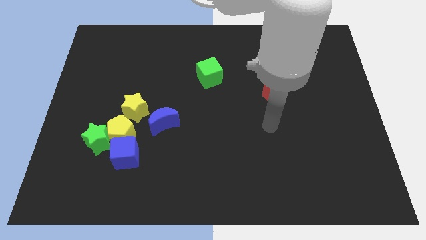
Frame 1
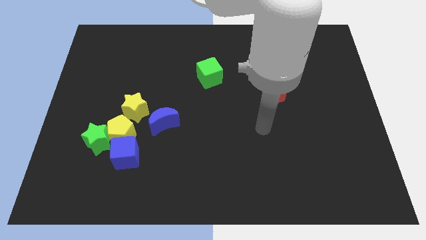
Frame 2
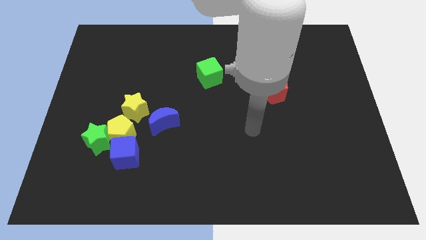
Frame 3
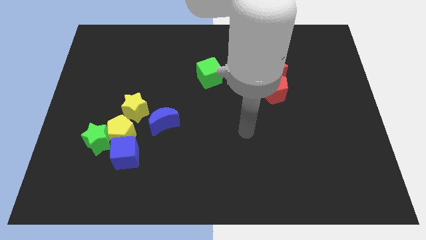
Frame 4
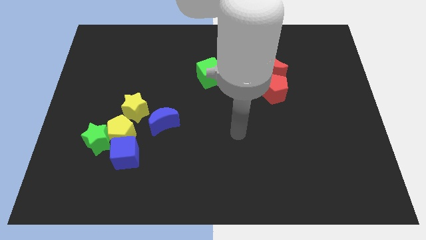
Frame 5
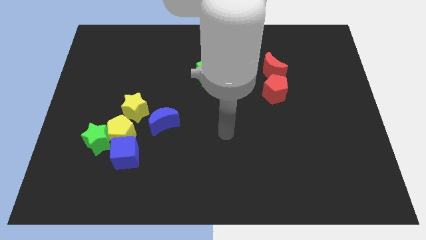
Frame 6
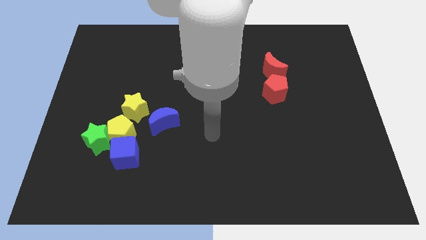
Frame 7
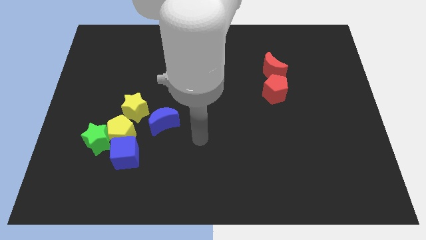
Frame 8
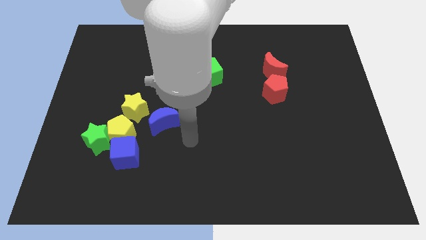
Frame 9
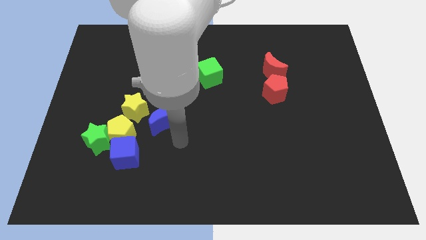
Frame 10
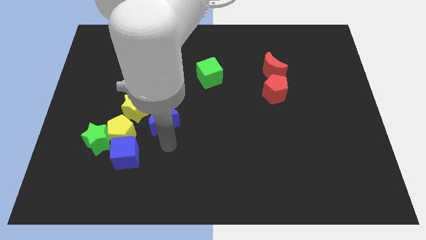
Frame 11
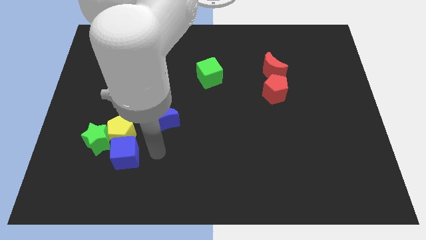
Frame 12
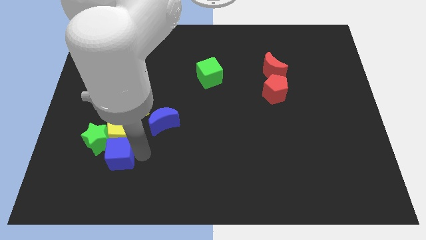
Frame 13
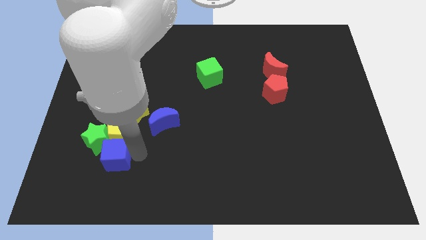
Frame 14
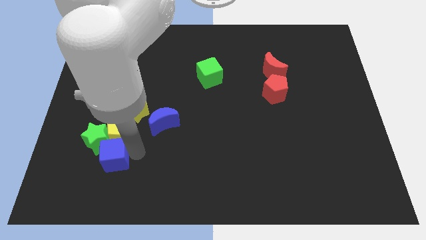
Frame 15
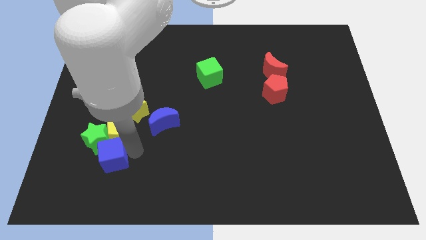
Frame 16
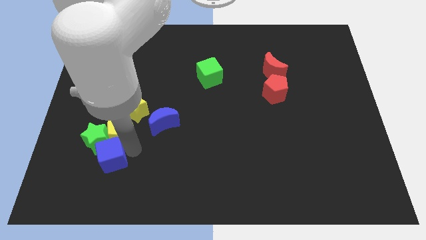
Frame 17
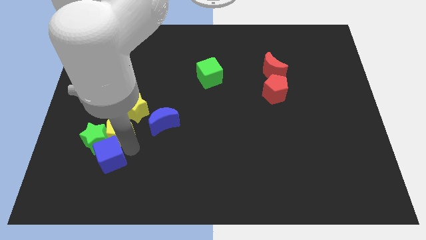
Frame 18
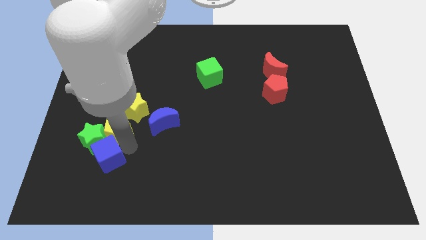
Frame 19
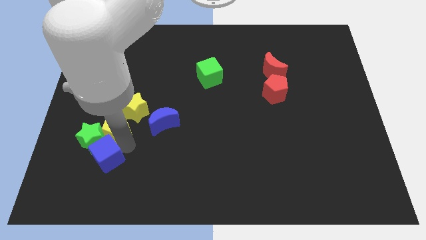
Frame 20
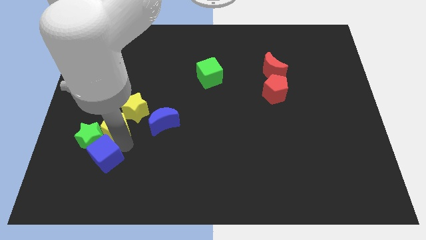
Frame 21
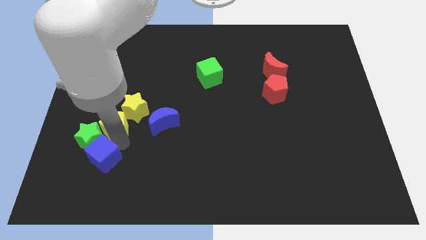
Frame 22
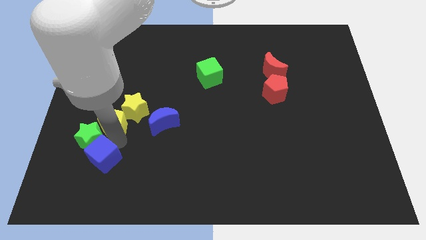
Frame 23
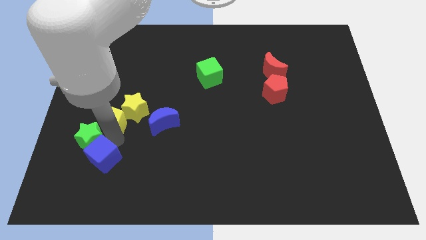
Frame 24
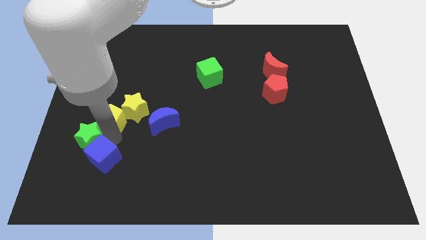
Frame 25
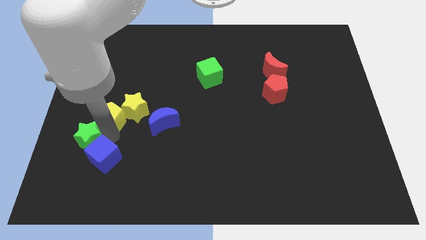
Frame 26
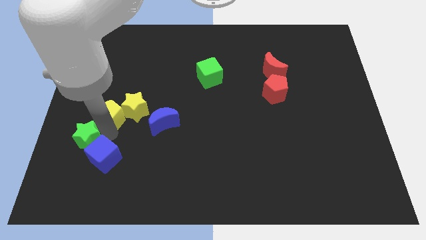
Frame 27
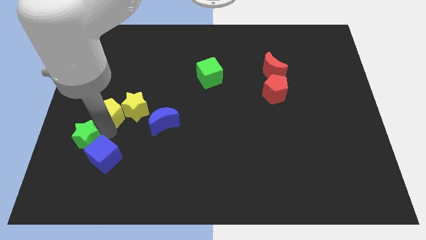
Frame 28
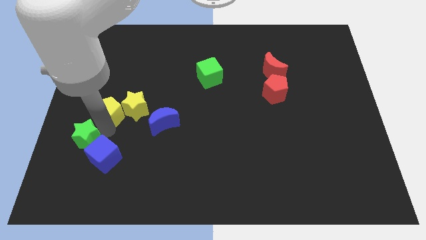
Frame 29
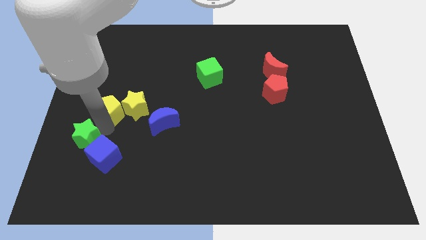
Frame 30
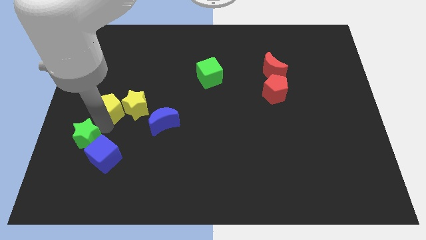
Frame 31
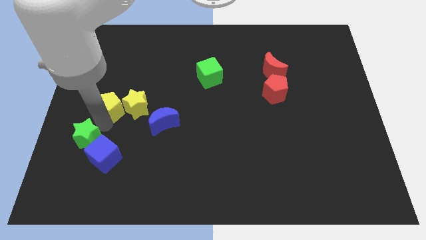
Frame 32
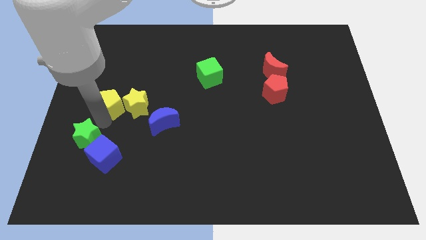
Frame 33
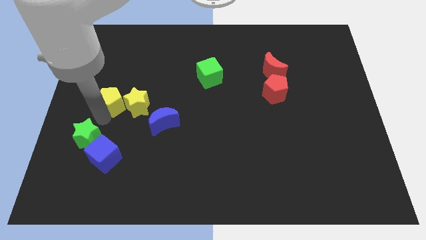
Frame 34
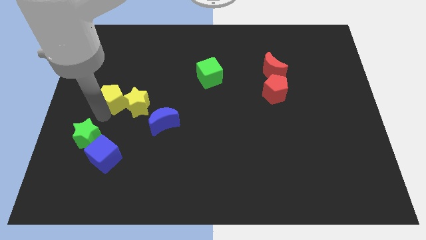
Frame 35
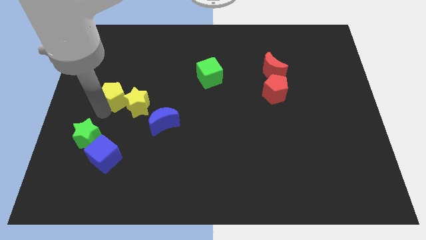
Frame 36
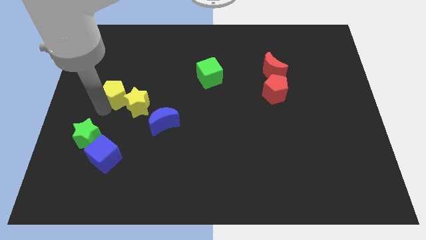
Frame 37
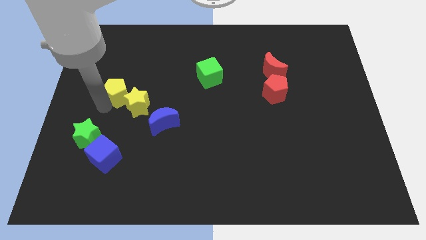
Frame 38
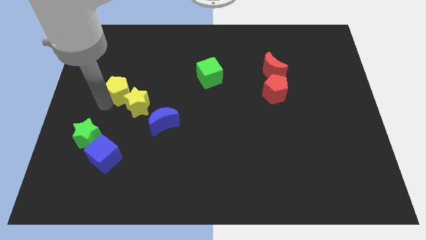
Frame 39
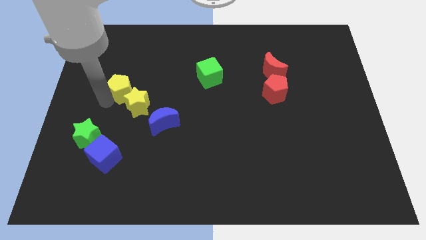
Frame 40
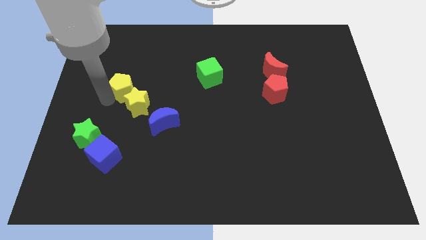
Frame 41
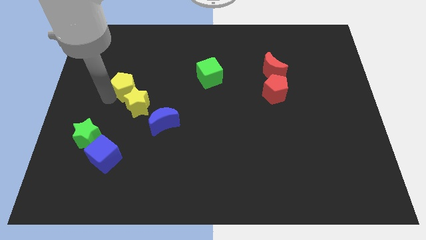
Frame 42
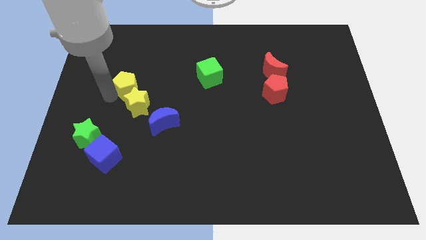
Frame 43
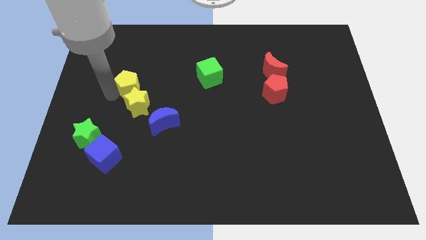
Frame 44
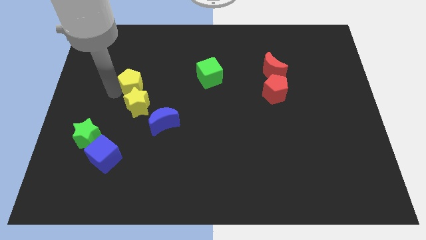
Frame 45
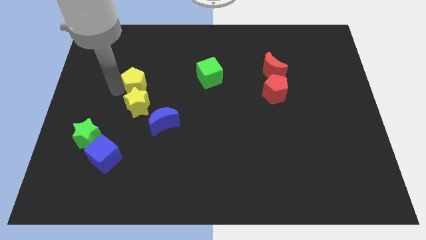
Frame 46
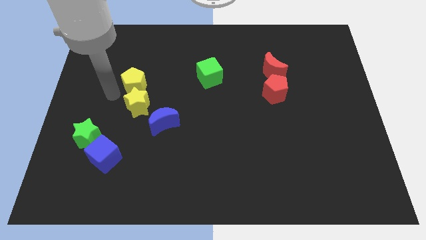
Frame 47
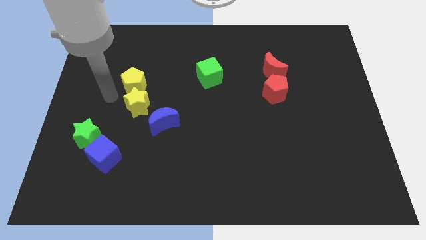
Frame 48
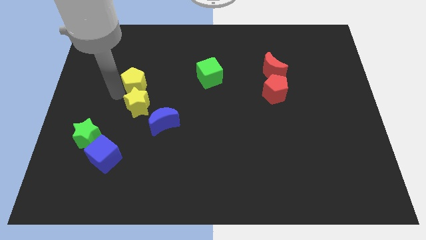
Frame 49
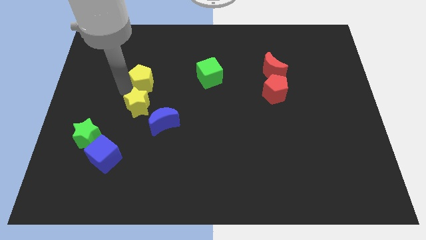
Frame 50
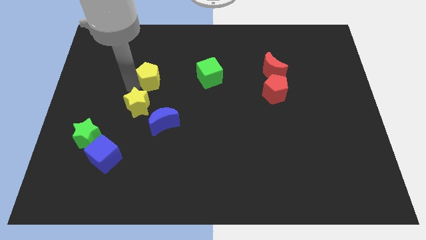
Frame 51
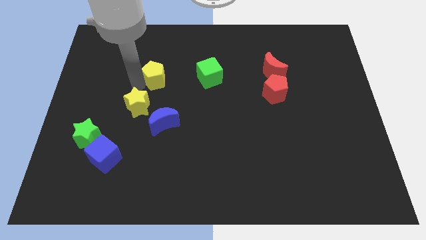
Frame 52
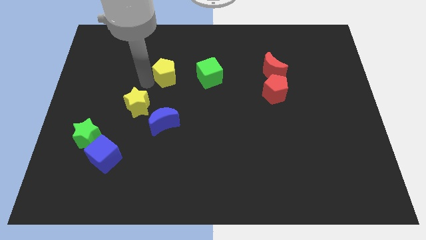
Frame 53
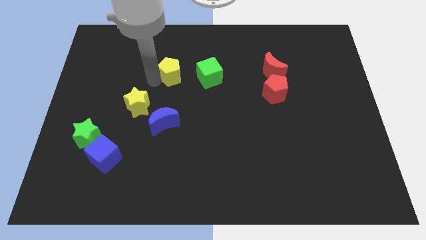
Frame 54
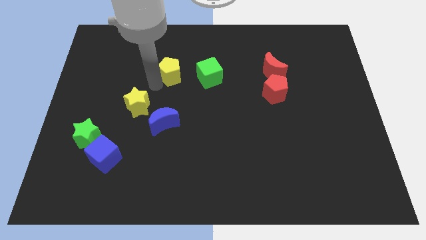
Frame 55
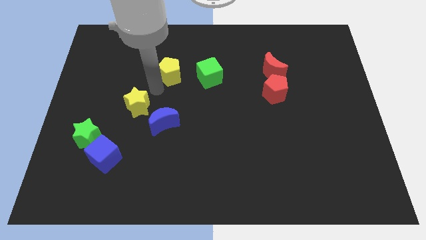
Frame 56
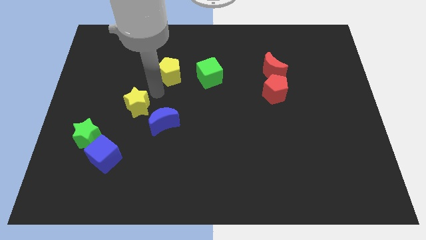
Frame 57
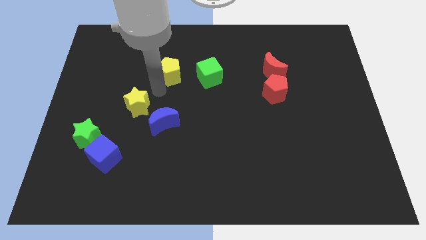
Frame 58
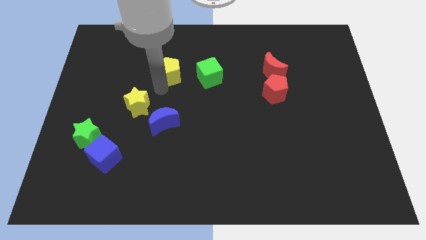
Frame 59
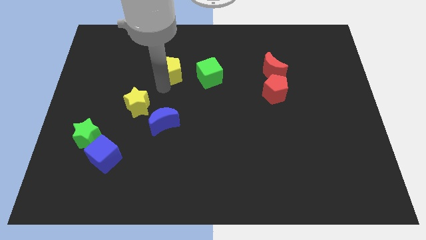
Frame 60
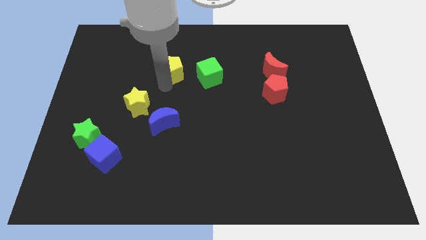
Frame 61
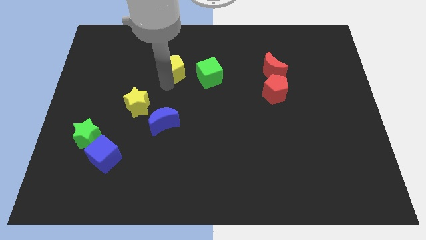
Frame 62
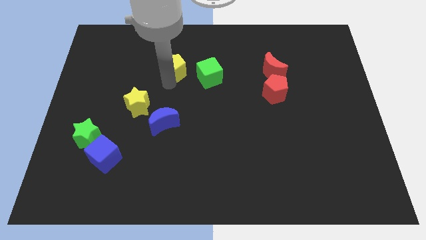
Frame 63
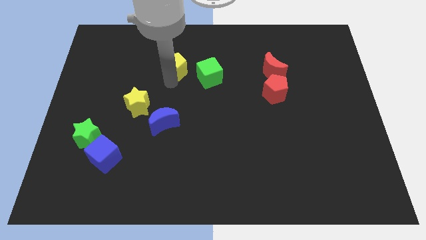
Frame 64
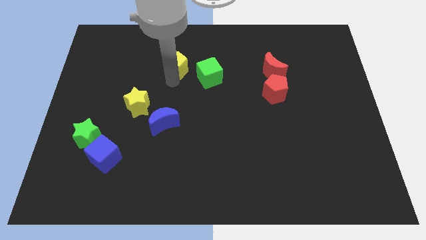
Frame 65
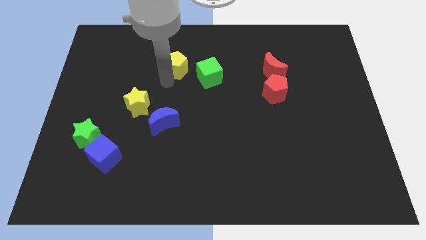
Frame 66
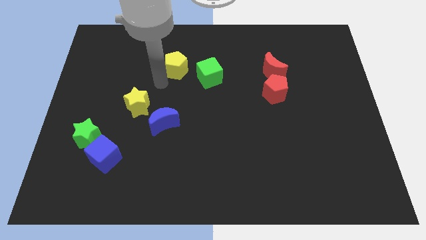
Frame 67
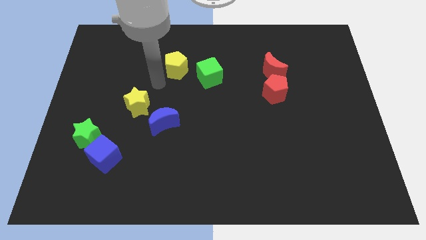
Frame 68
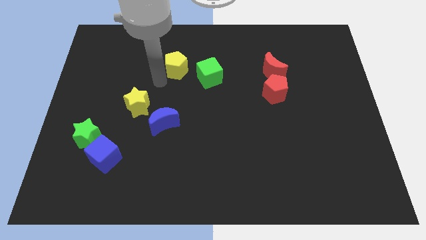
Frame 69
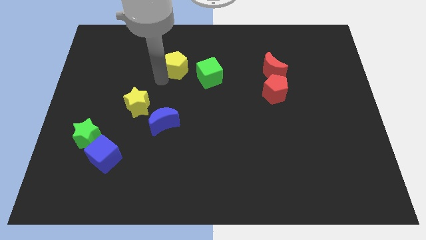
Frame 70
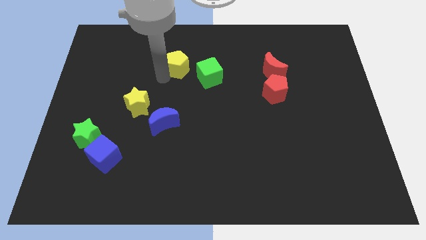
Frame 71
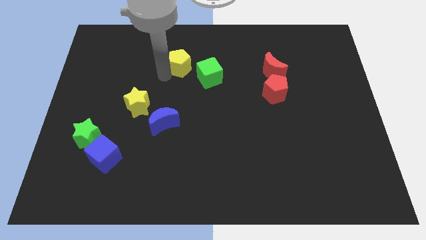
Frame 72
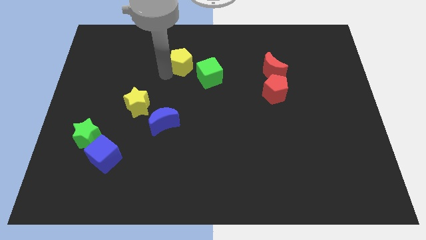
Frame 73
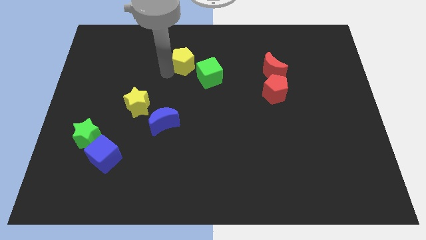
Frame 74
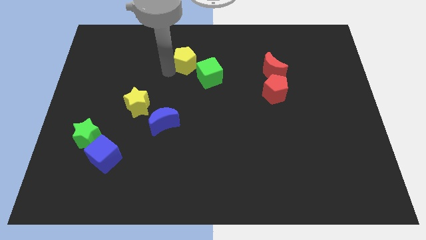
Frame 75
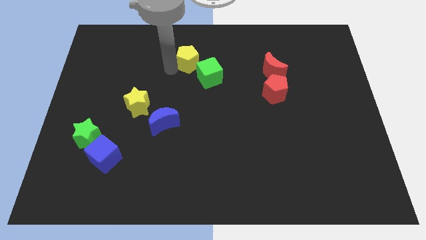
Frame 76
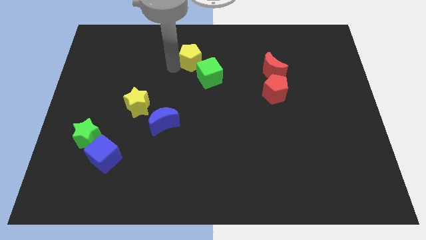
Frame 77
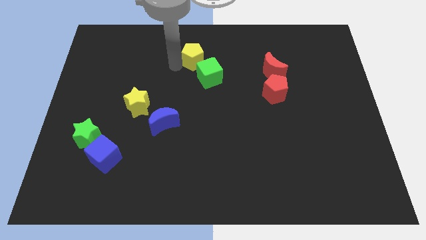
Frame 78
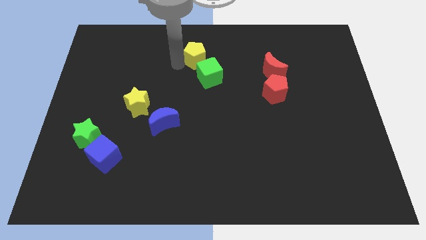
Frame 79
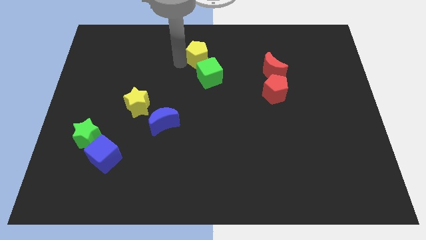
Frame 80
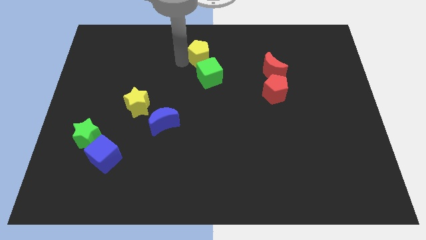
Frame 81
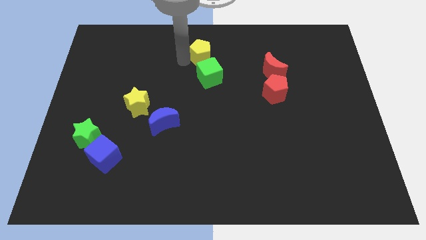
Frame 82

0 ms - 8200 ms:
push the yellow pentagon to the top
